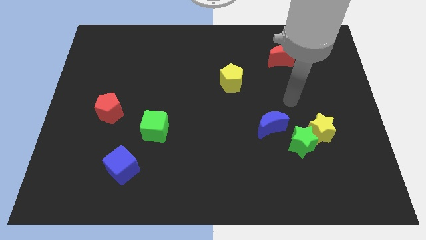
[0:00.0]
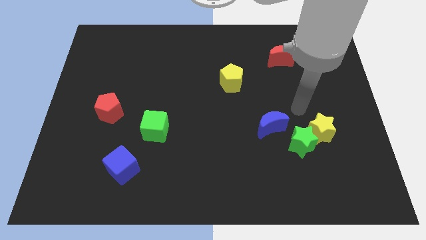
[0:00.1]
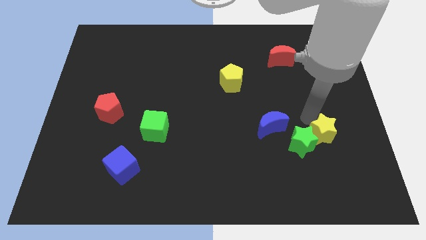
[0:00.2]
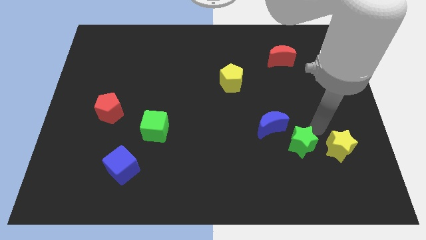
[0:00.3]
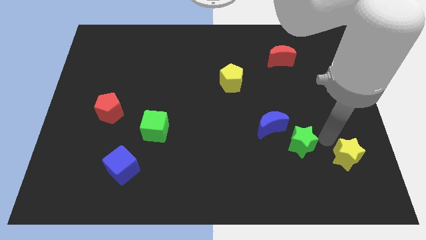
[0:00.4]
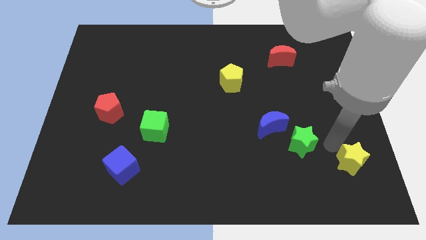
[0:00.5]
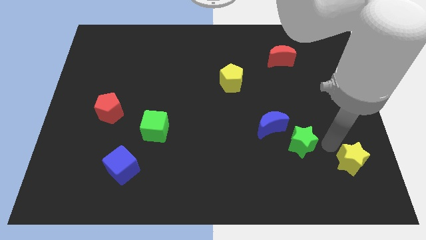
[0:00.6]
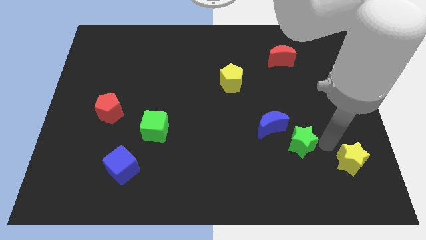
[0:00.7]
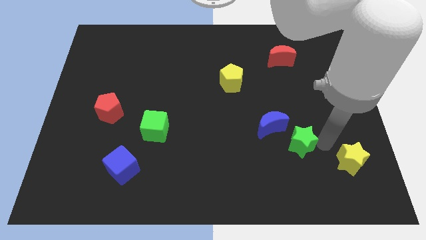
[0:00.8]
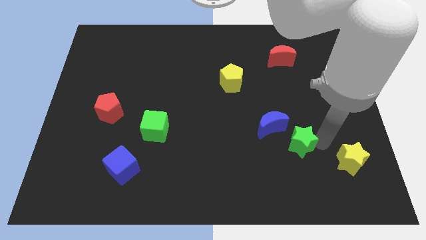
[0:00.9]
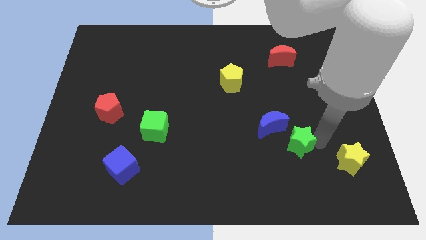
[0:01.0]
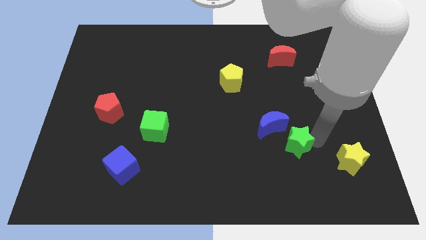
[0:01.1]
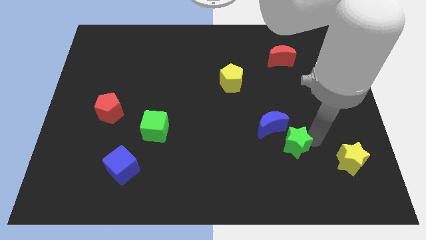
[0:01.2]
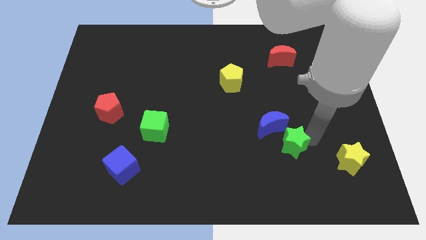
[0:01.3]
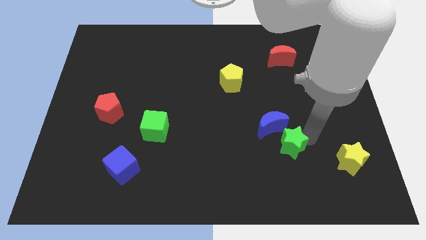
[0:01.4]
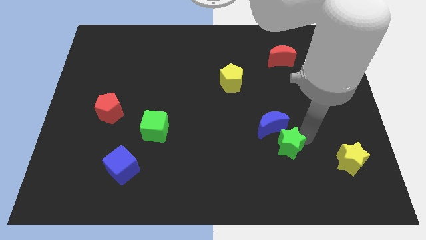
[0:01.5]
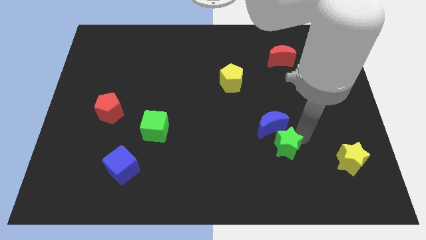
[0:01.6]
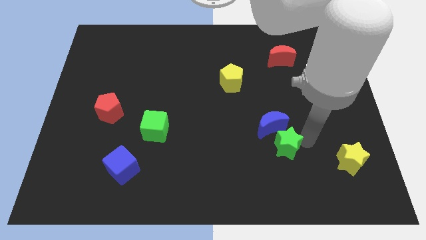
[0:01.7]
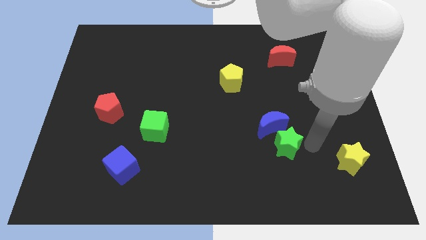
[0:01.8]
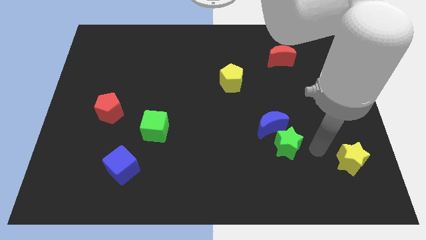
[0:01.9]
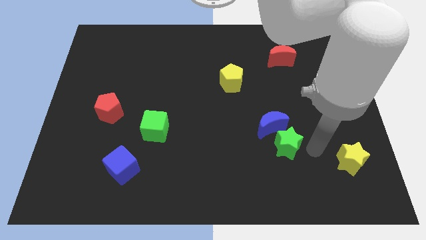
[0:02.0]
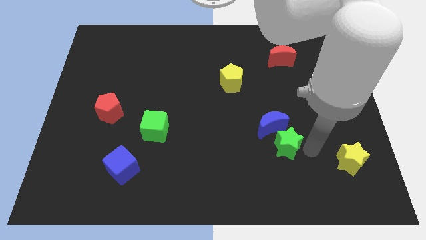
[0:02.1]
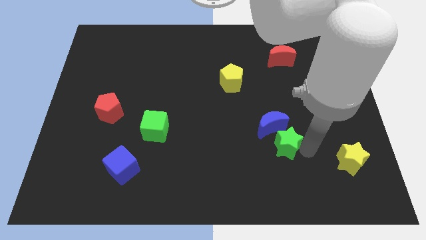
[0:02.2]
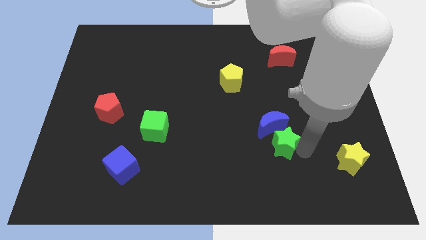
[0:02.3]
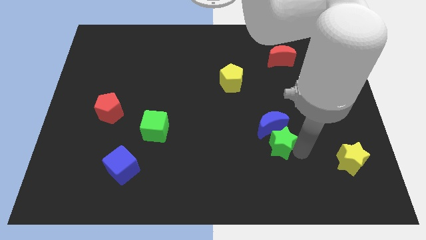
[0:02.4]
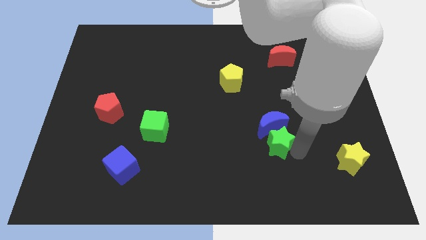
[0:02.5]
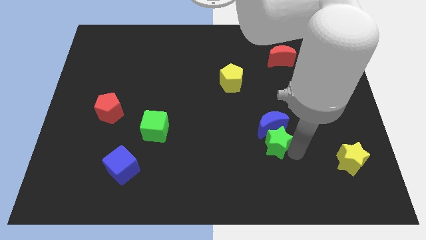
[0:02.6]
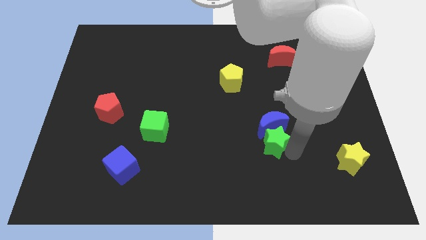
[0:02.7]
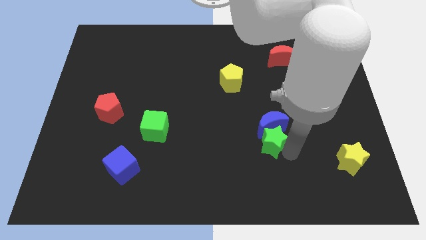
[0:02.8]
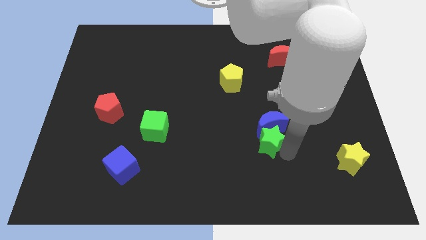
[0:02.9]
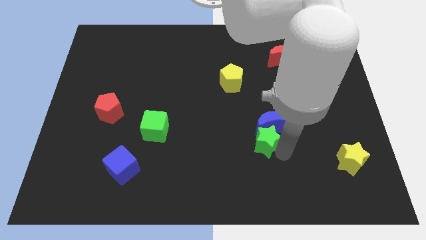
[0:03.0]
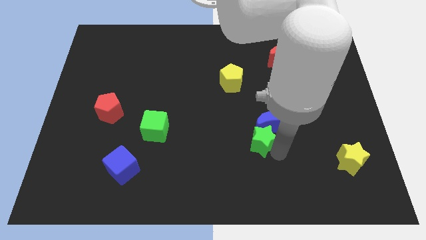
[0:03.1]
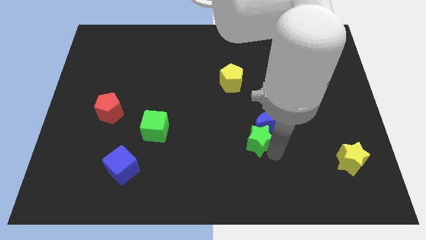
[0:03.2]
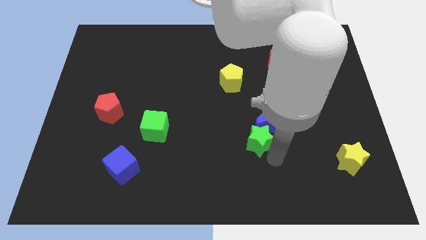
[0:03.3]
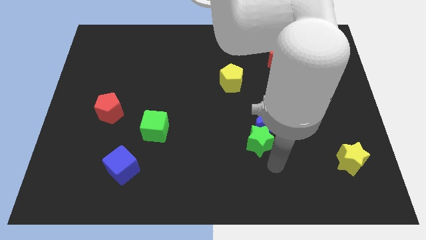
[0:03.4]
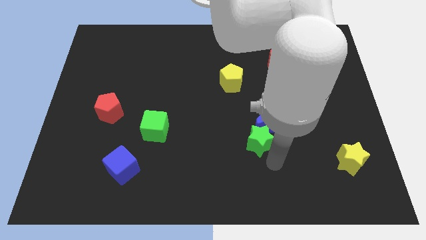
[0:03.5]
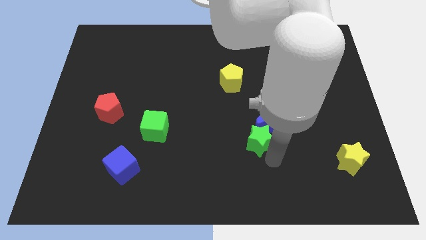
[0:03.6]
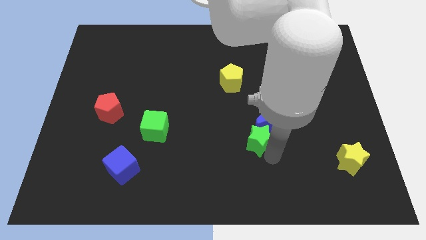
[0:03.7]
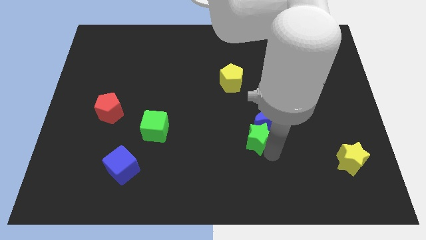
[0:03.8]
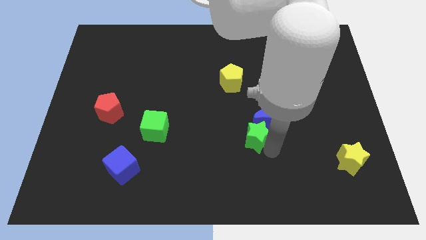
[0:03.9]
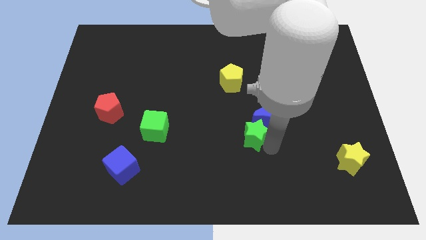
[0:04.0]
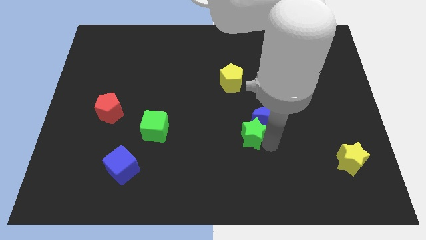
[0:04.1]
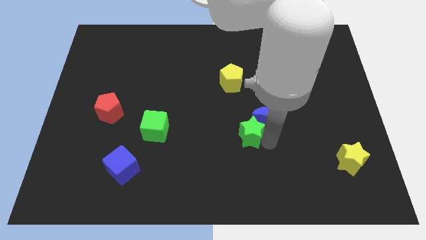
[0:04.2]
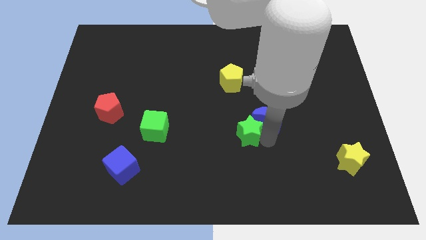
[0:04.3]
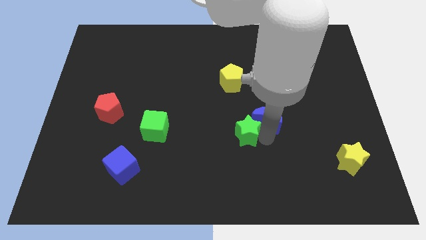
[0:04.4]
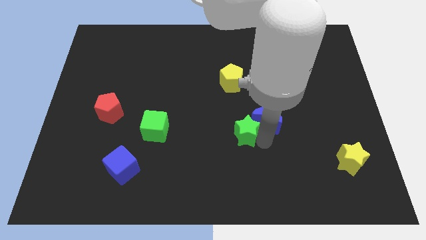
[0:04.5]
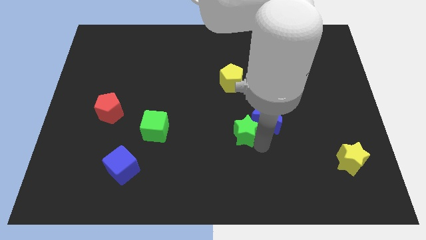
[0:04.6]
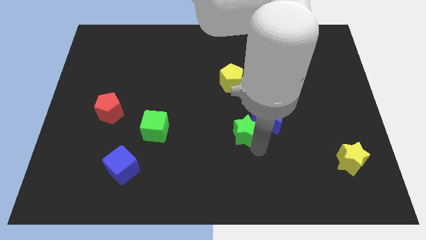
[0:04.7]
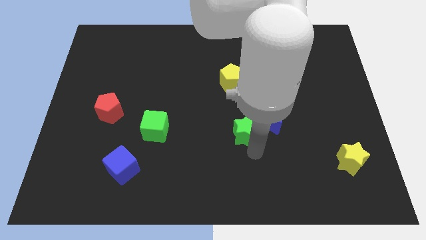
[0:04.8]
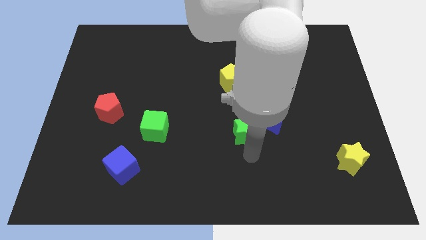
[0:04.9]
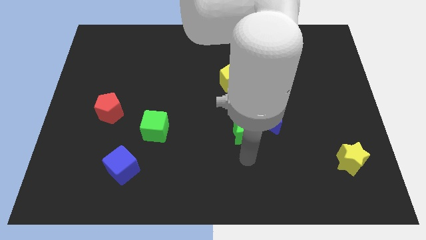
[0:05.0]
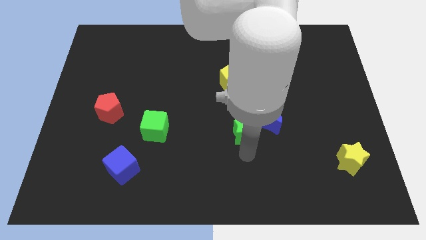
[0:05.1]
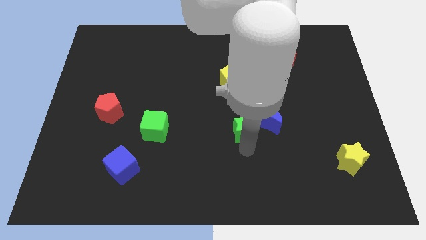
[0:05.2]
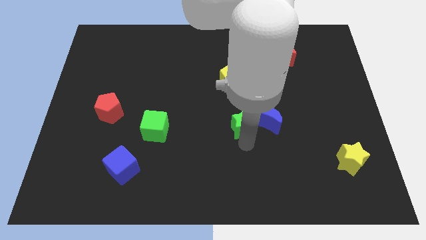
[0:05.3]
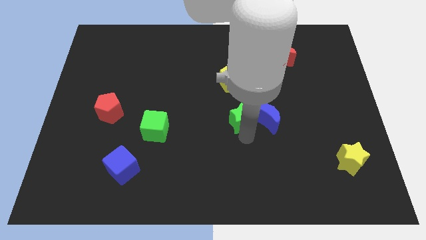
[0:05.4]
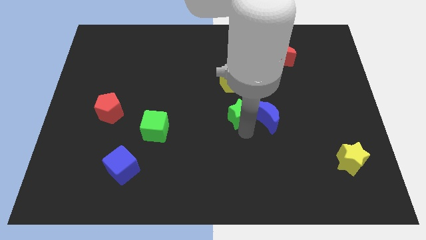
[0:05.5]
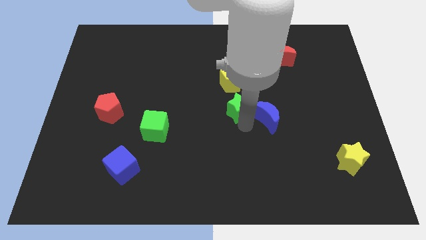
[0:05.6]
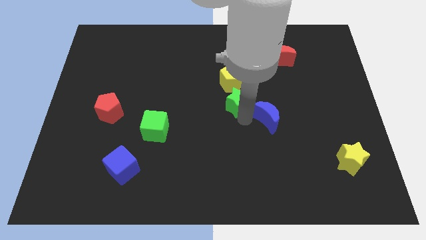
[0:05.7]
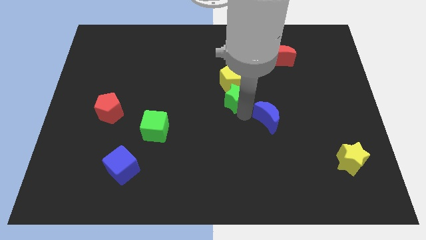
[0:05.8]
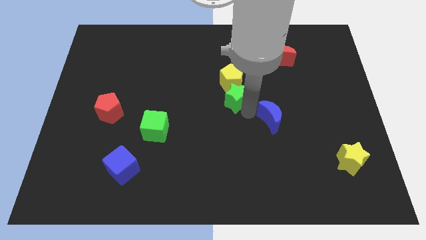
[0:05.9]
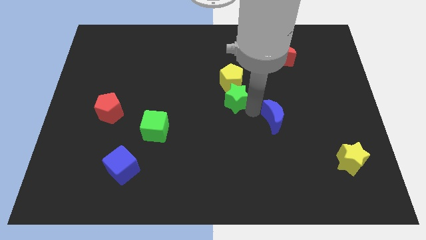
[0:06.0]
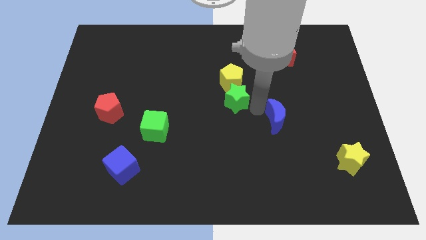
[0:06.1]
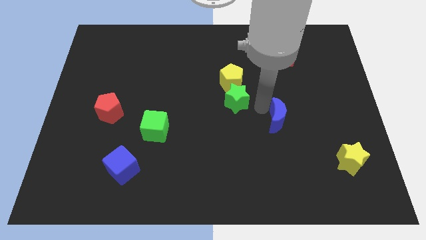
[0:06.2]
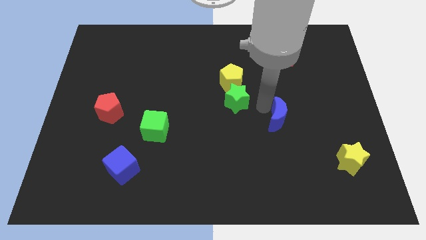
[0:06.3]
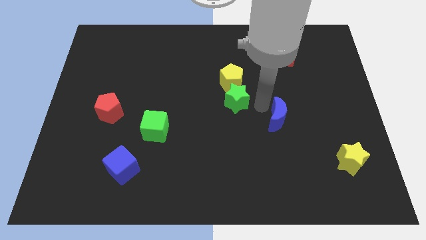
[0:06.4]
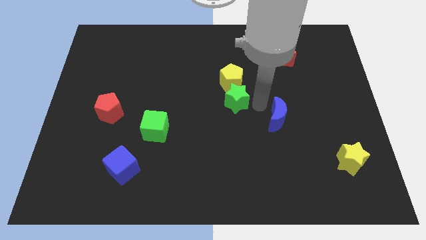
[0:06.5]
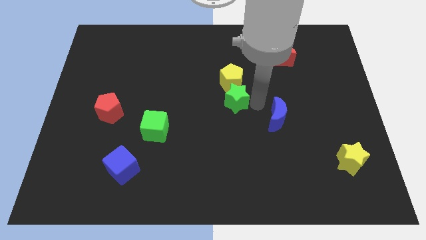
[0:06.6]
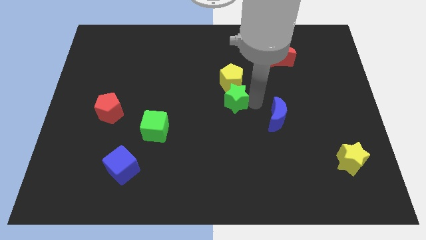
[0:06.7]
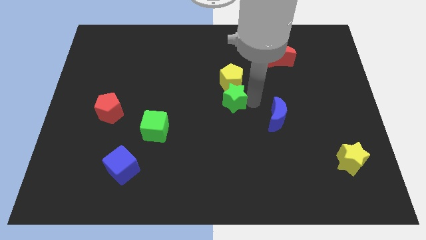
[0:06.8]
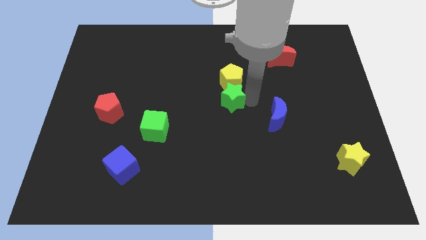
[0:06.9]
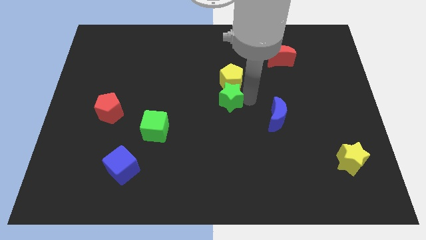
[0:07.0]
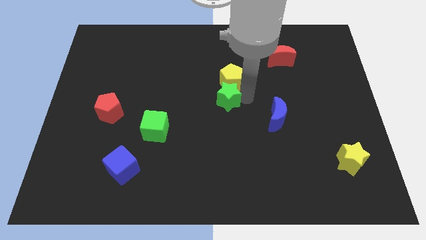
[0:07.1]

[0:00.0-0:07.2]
slide the green star upwards and left diagonally

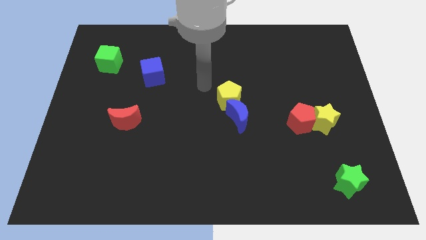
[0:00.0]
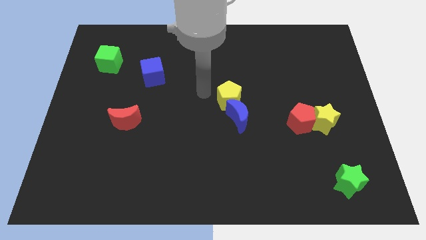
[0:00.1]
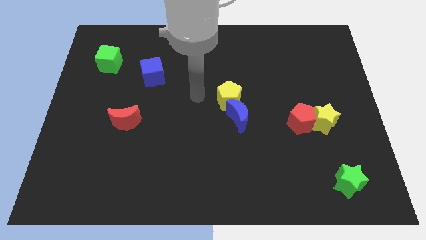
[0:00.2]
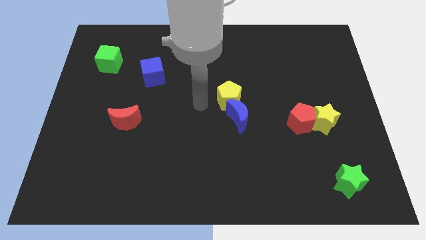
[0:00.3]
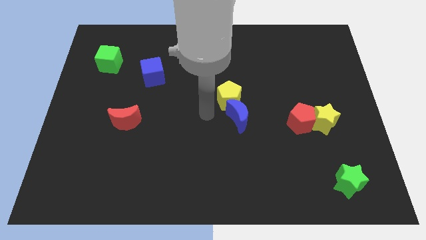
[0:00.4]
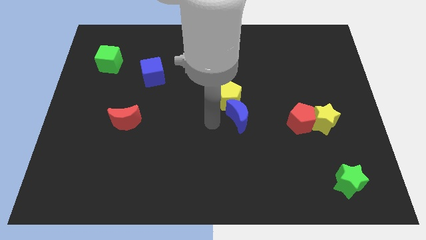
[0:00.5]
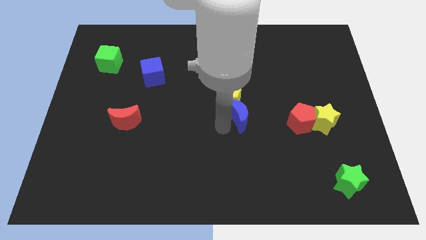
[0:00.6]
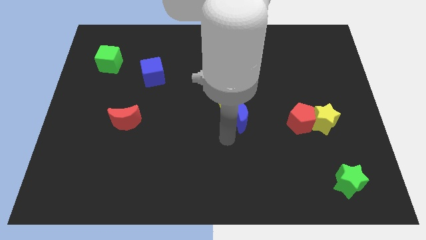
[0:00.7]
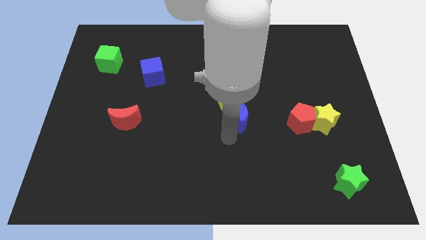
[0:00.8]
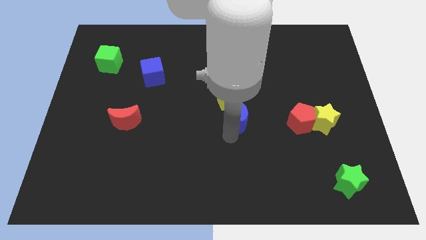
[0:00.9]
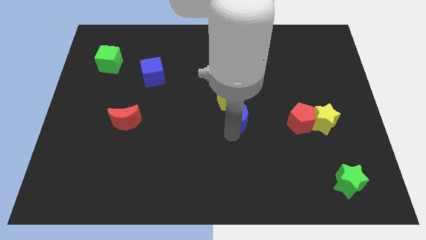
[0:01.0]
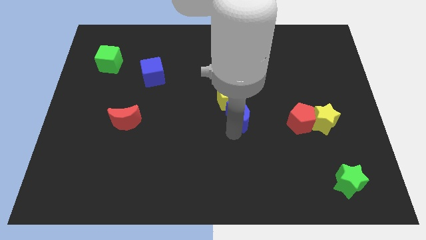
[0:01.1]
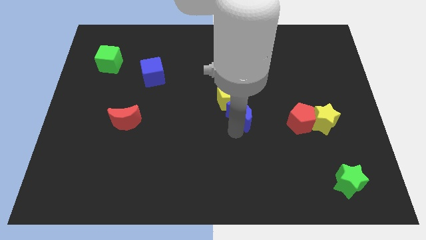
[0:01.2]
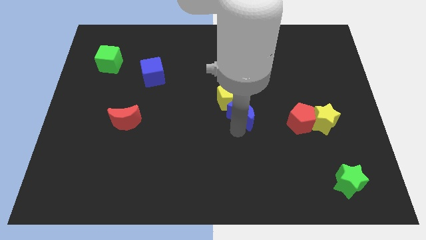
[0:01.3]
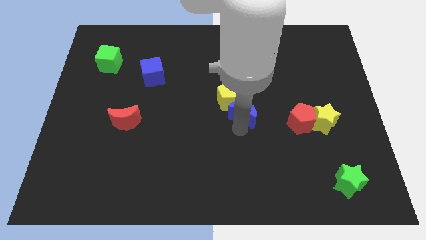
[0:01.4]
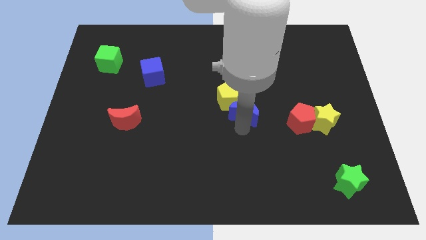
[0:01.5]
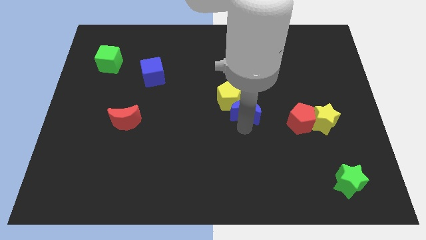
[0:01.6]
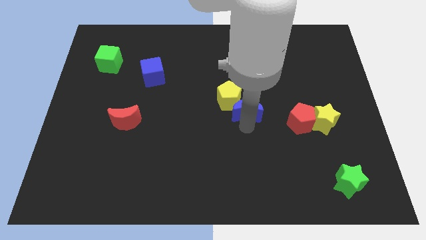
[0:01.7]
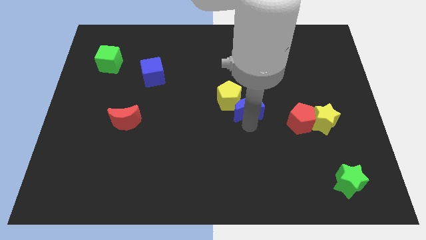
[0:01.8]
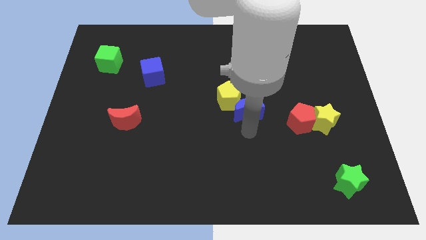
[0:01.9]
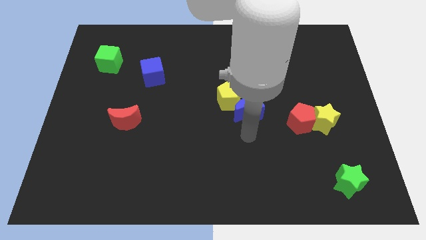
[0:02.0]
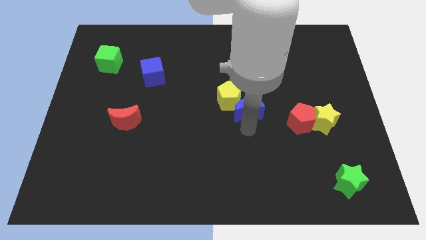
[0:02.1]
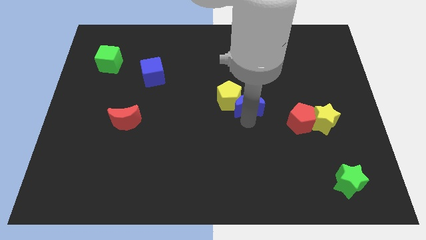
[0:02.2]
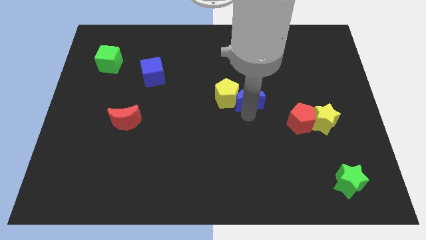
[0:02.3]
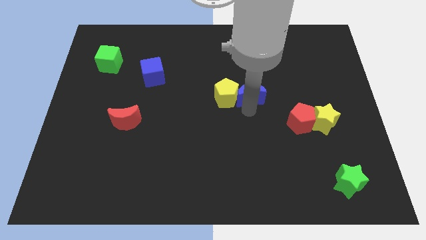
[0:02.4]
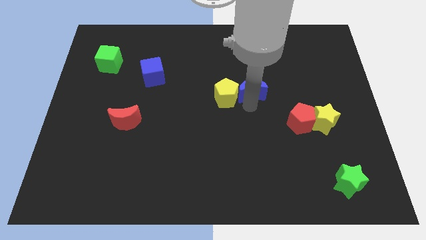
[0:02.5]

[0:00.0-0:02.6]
slide the blue moon a bit up
